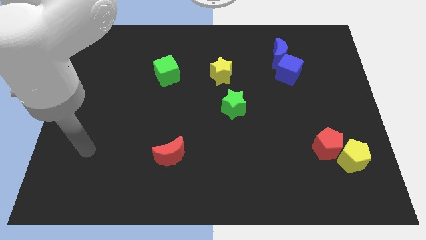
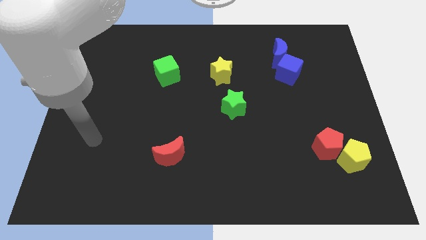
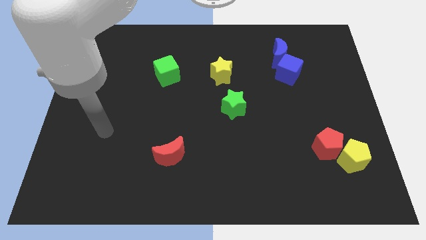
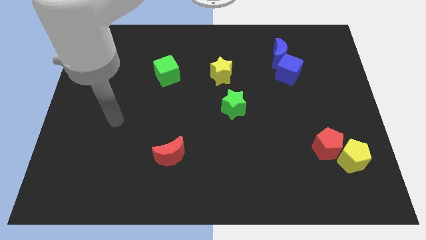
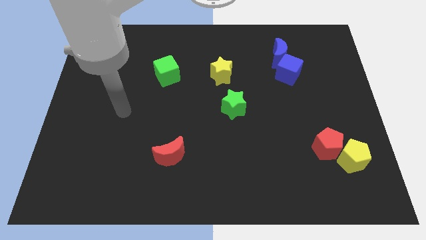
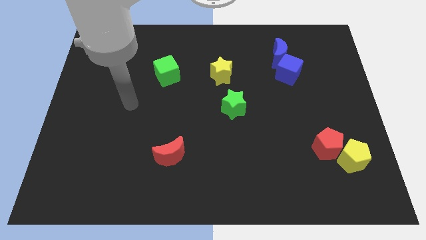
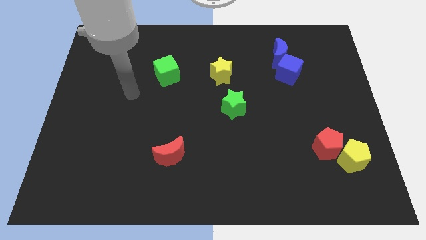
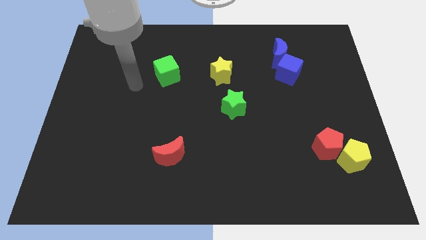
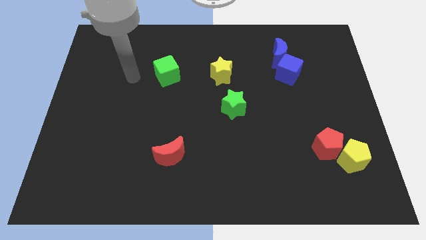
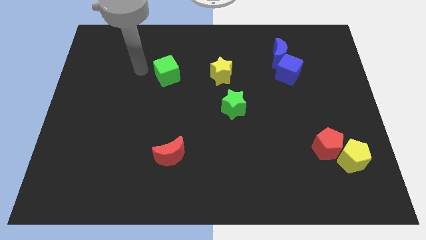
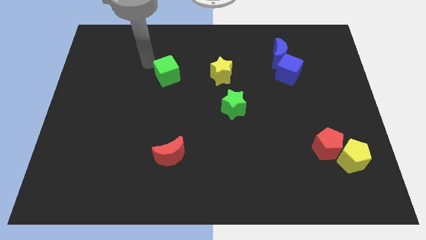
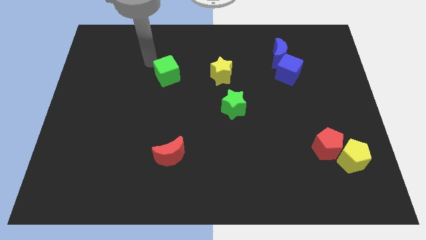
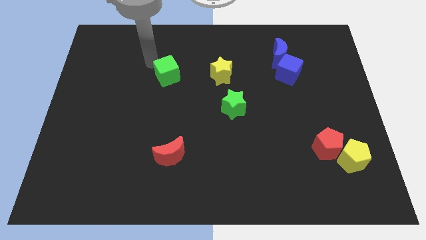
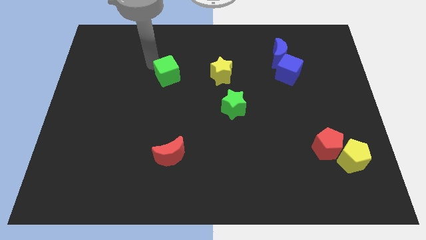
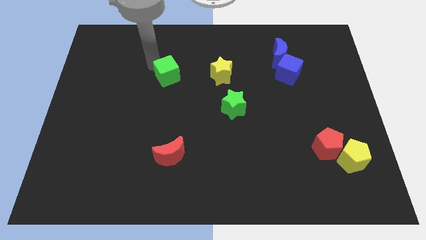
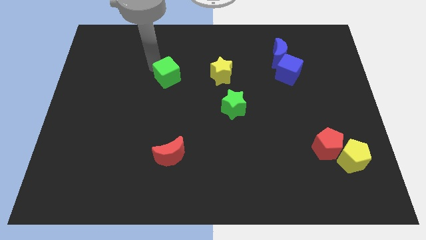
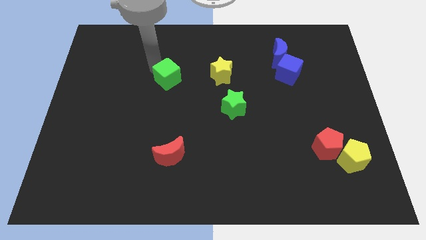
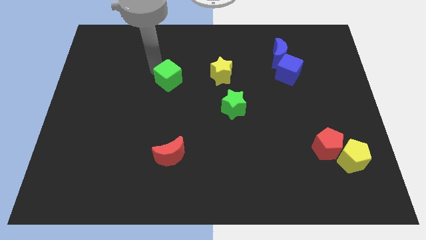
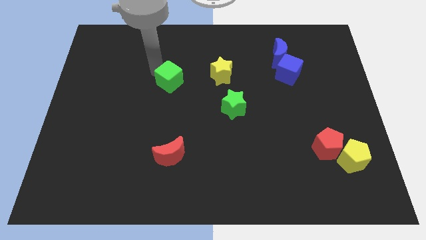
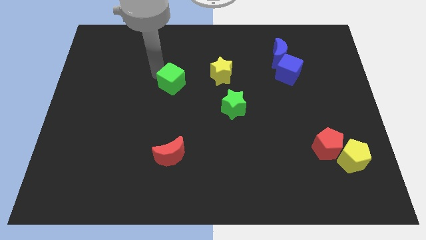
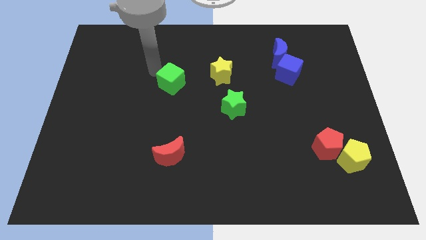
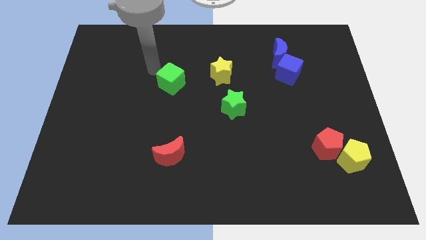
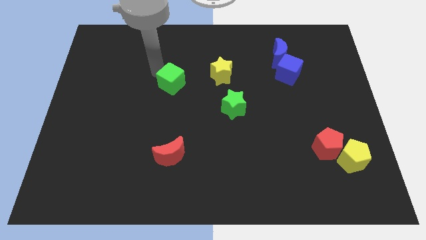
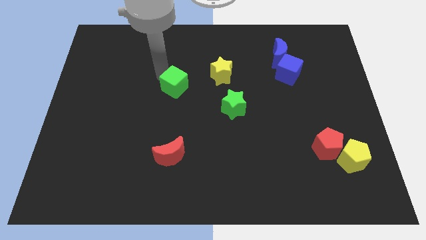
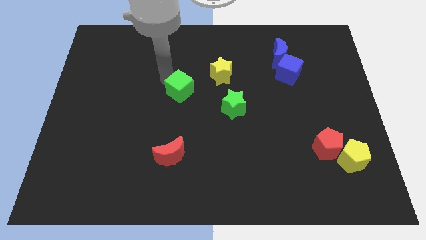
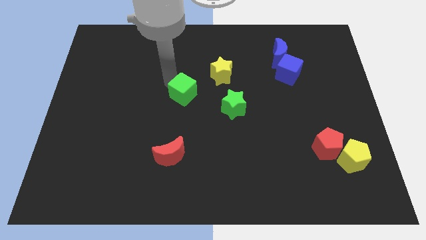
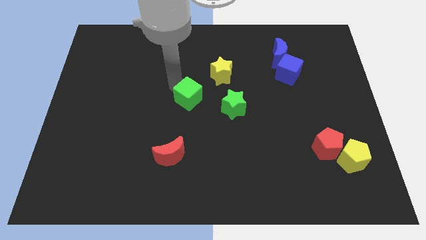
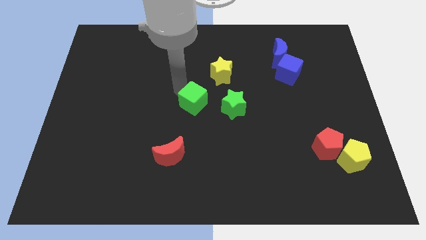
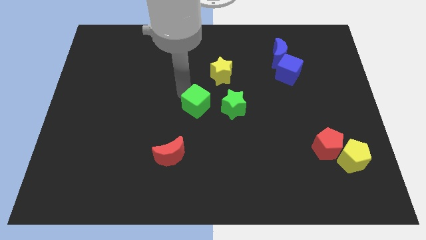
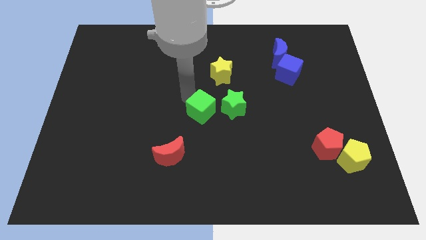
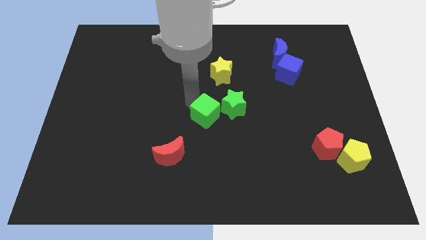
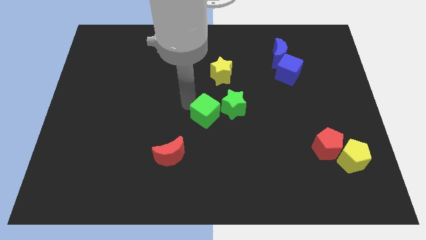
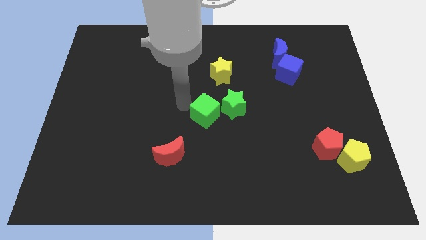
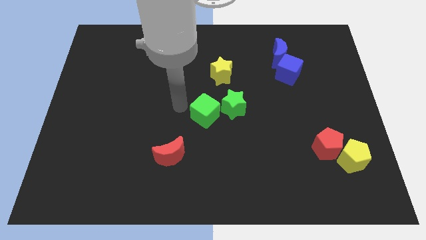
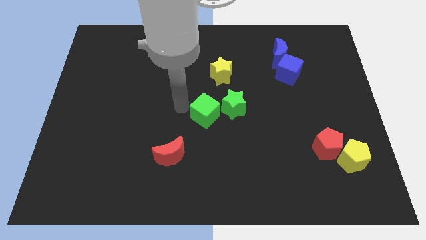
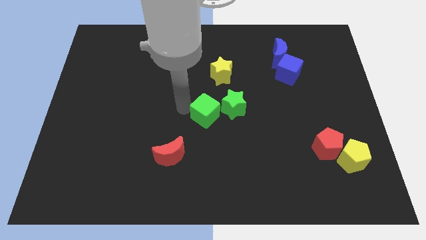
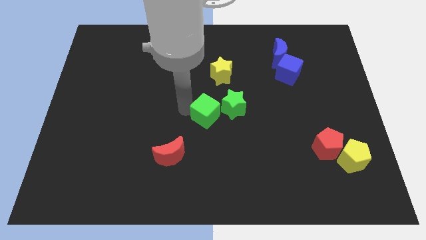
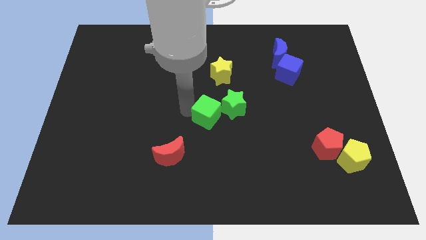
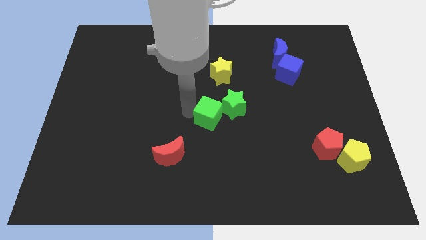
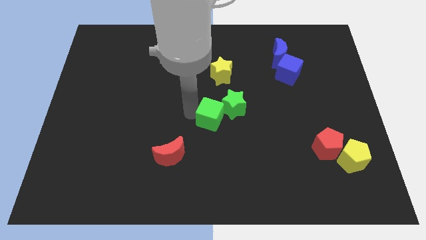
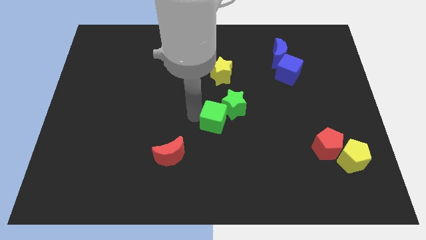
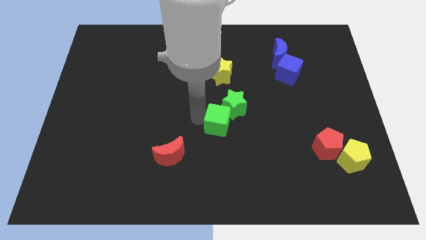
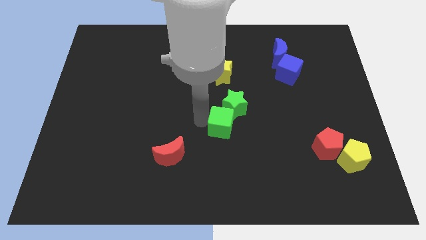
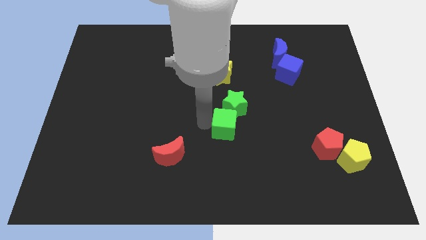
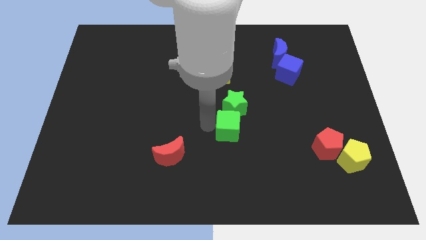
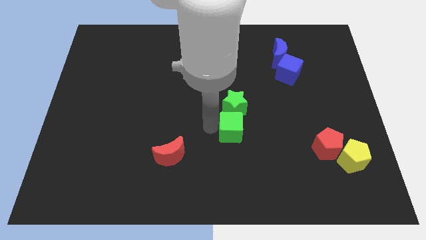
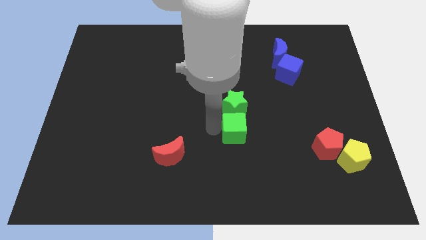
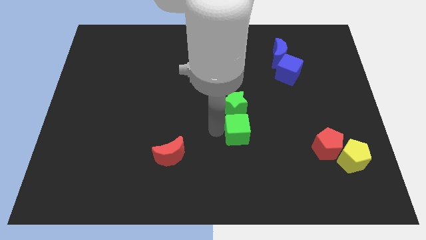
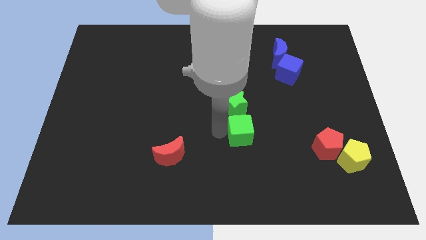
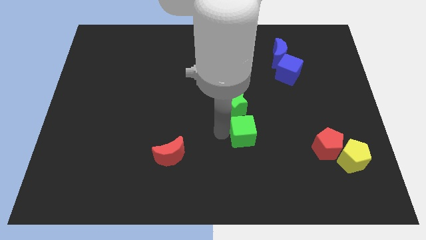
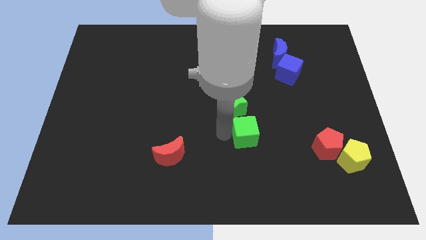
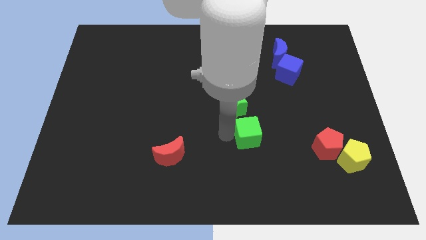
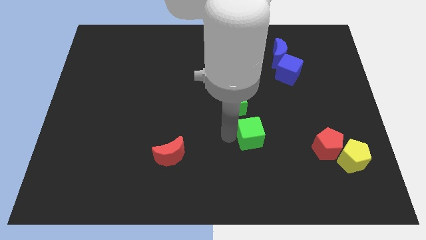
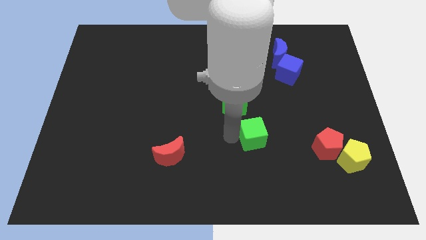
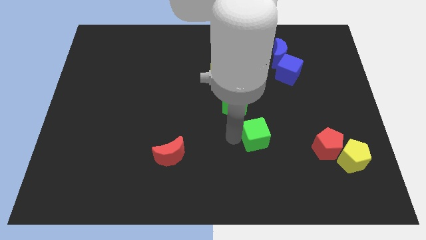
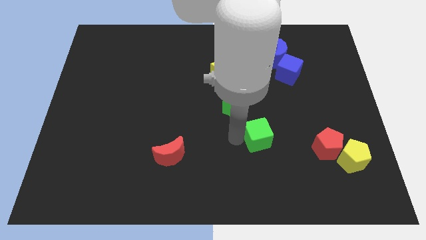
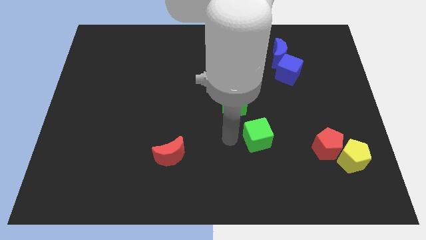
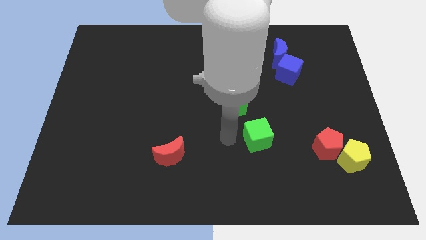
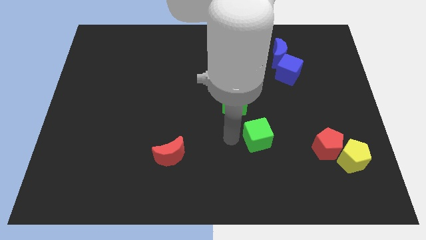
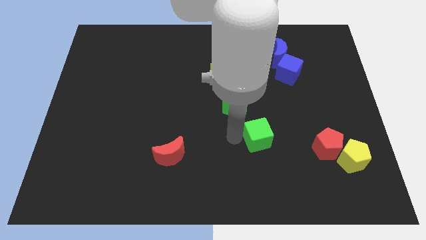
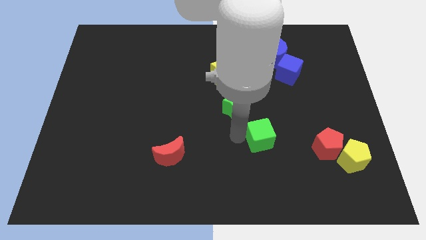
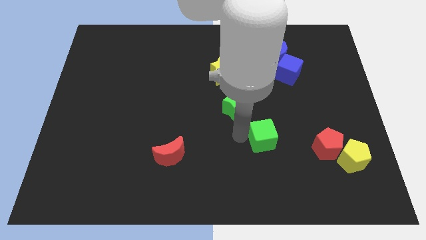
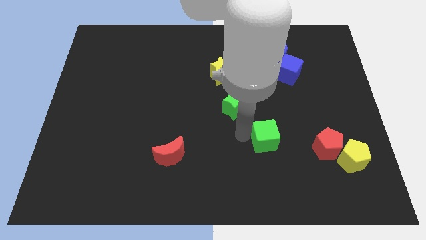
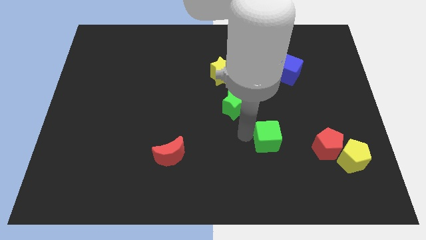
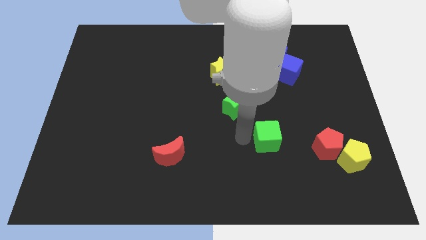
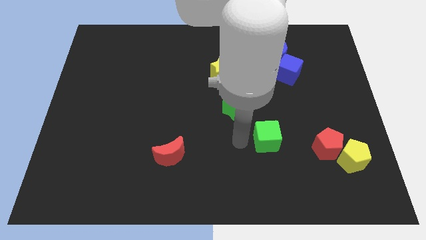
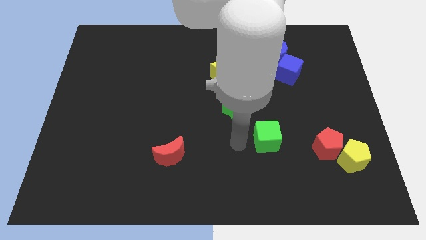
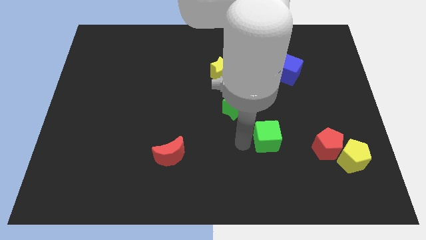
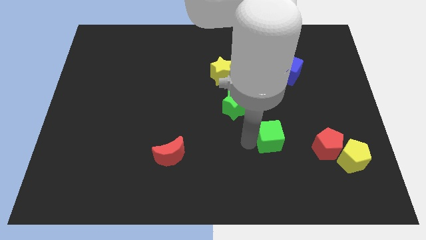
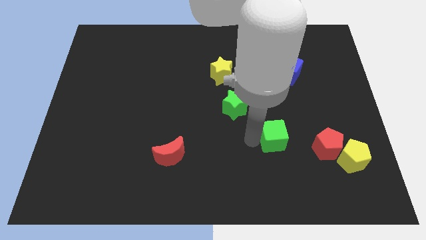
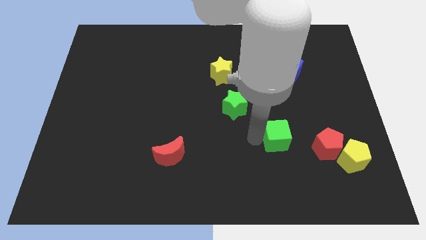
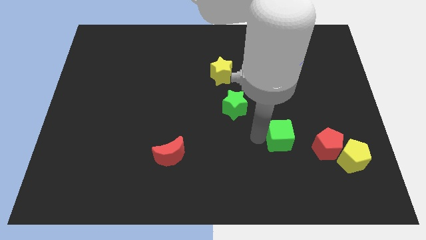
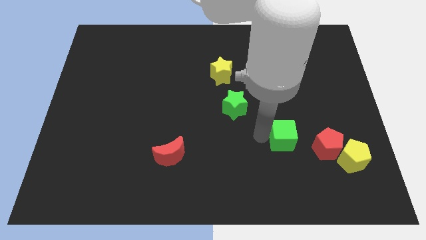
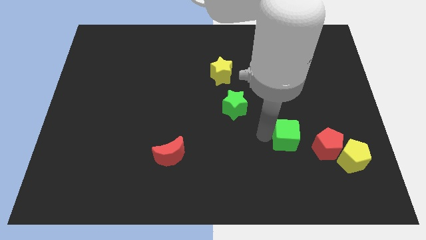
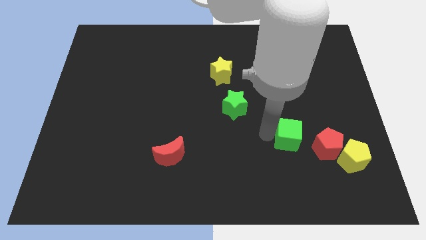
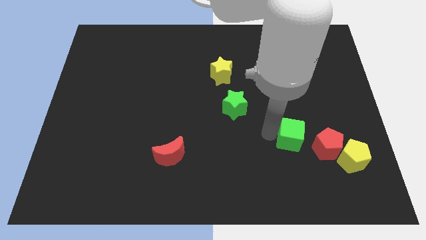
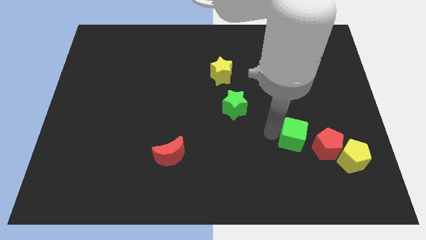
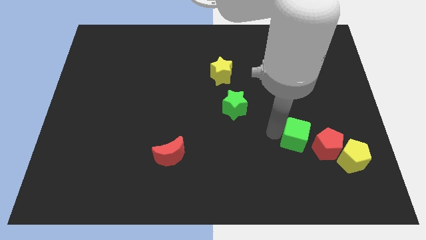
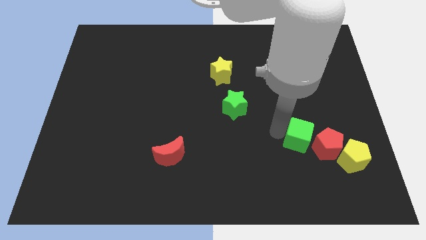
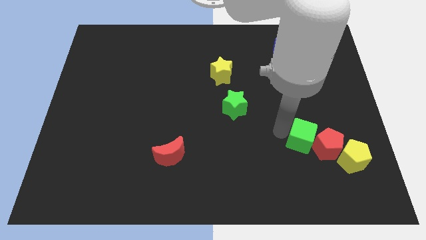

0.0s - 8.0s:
slide the green cube towards the red pentagon
